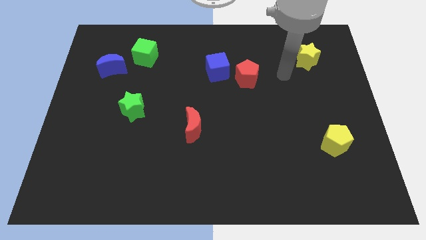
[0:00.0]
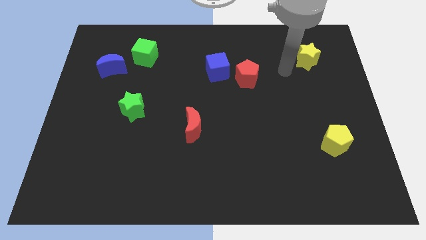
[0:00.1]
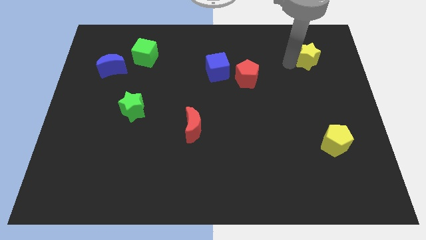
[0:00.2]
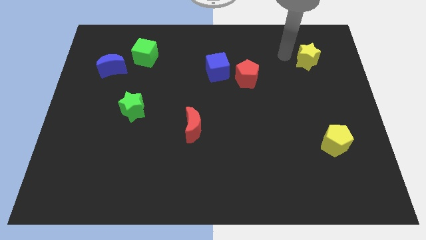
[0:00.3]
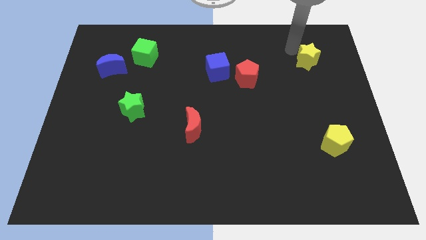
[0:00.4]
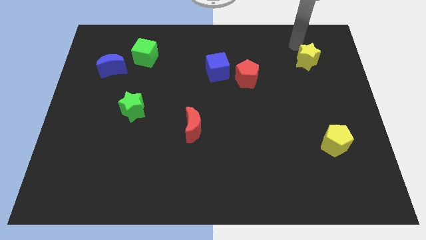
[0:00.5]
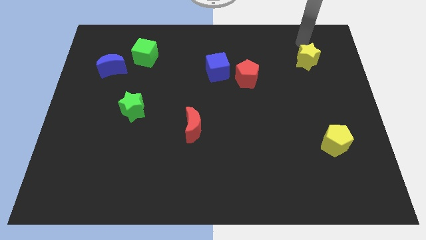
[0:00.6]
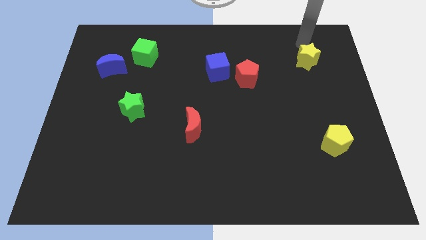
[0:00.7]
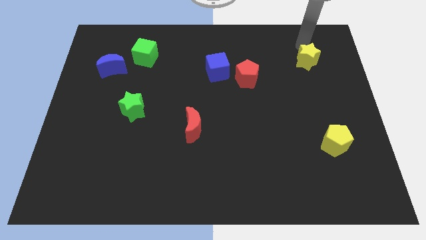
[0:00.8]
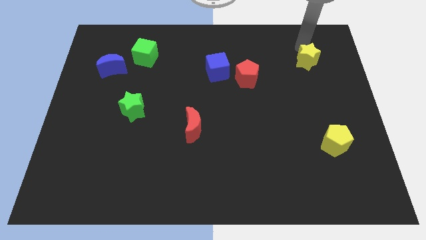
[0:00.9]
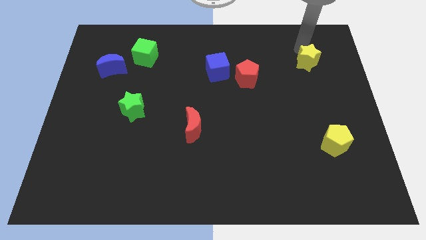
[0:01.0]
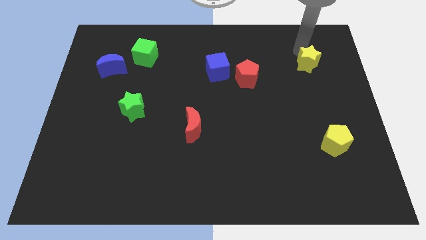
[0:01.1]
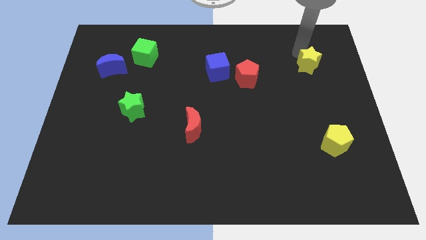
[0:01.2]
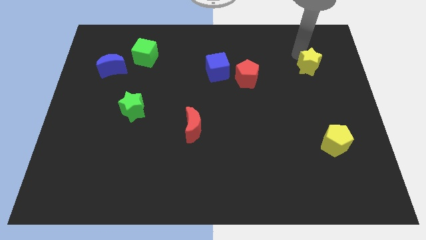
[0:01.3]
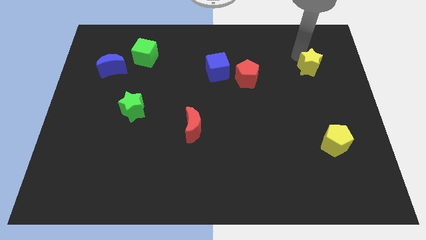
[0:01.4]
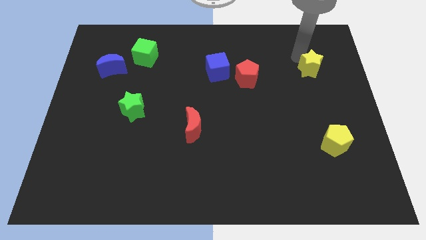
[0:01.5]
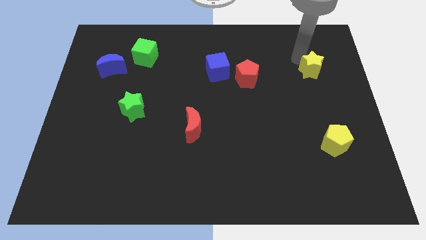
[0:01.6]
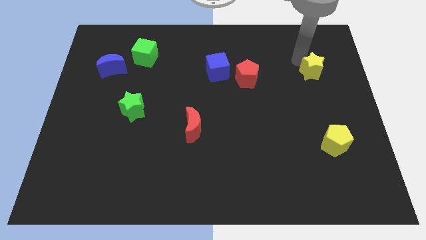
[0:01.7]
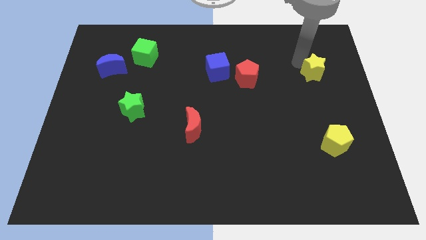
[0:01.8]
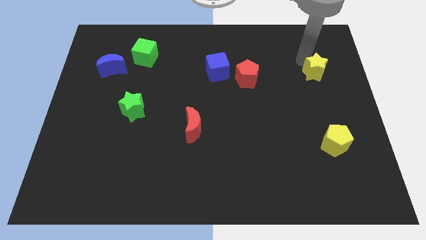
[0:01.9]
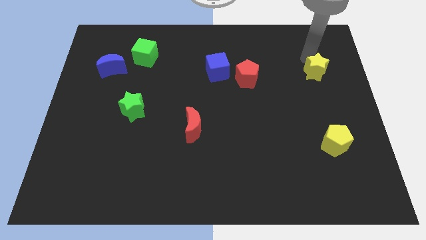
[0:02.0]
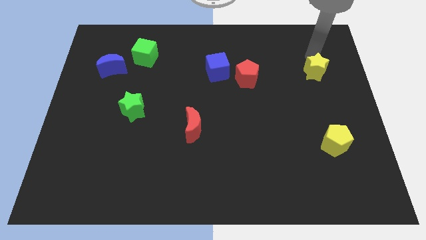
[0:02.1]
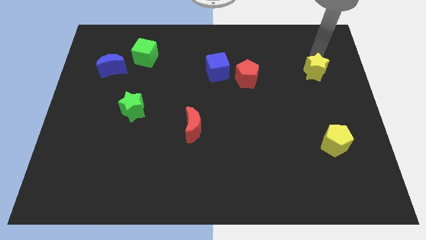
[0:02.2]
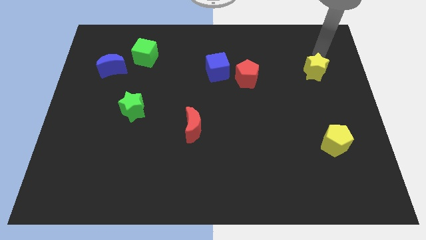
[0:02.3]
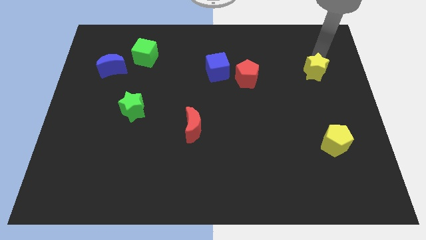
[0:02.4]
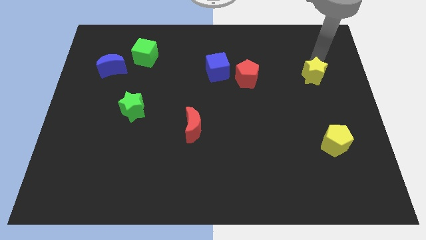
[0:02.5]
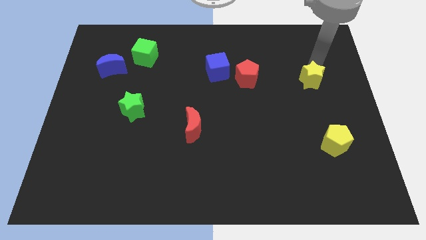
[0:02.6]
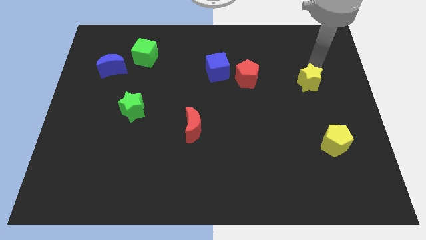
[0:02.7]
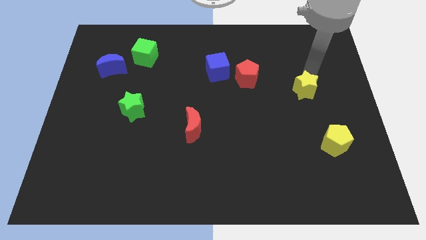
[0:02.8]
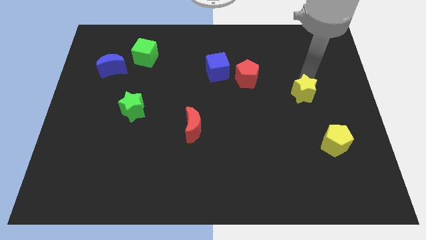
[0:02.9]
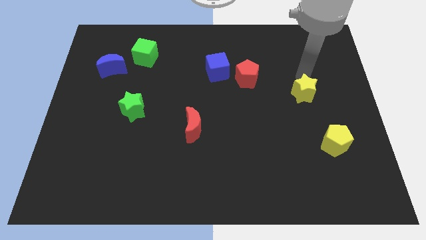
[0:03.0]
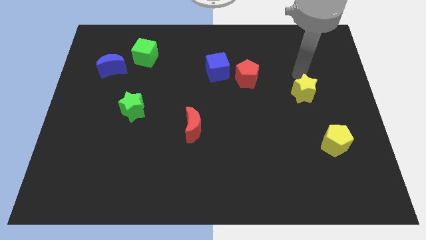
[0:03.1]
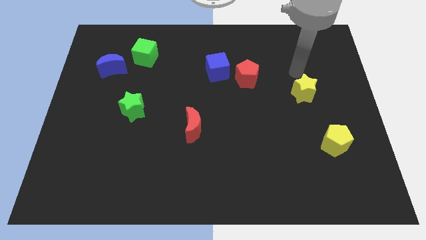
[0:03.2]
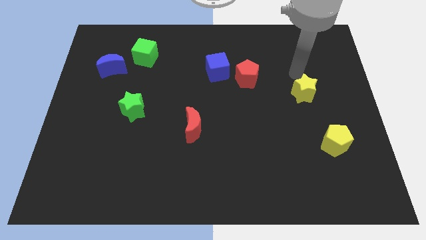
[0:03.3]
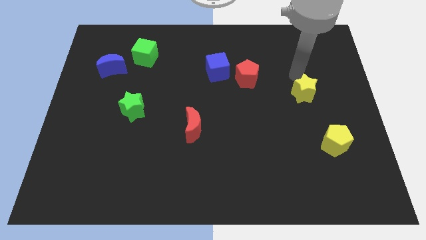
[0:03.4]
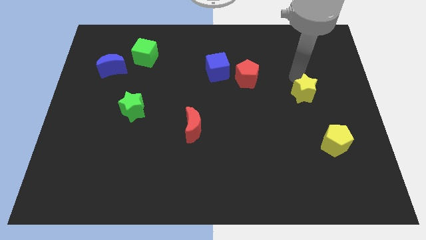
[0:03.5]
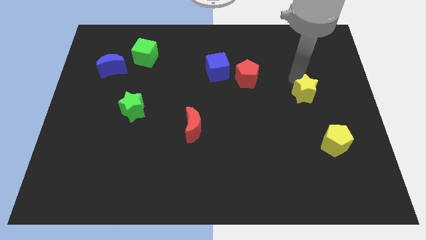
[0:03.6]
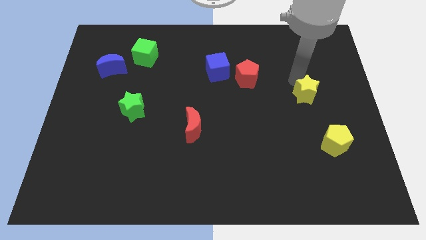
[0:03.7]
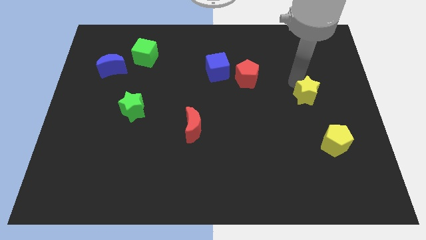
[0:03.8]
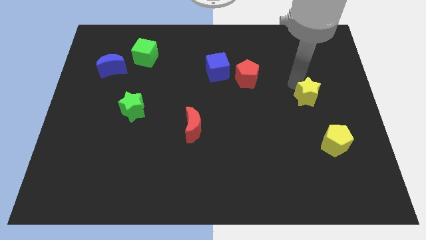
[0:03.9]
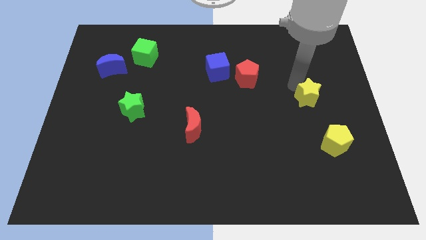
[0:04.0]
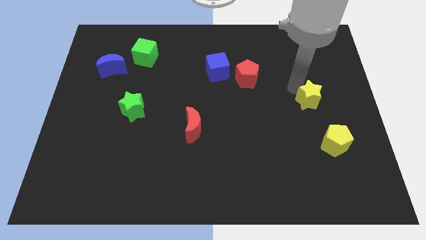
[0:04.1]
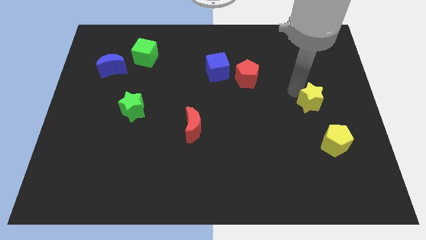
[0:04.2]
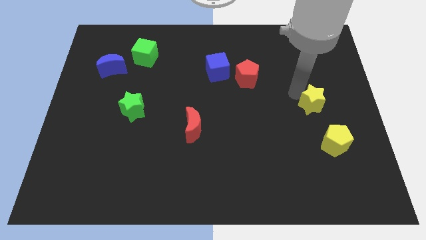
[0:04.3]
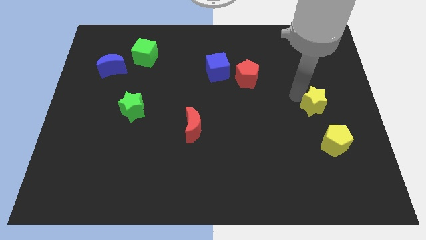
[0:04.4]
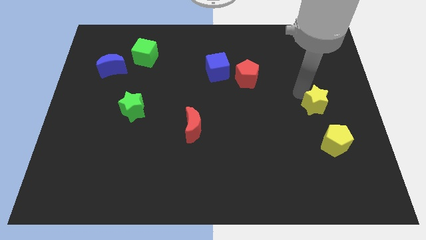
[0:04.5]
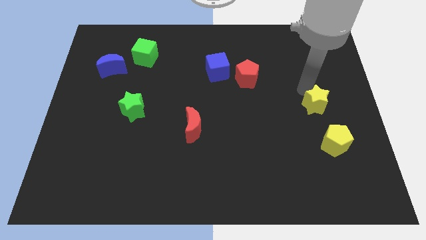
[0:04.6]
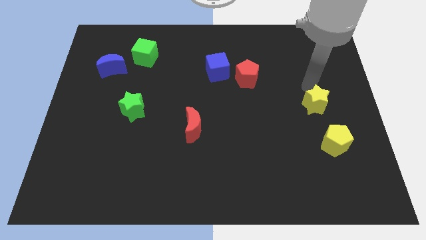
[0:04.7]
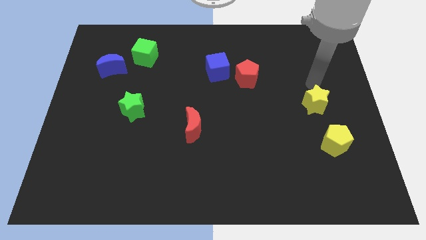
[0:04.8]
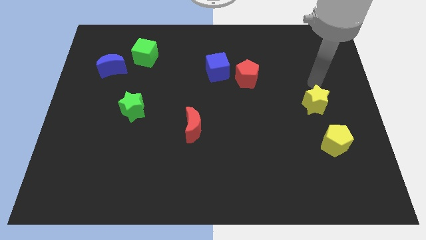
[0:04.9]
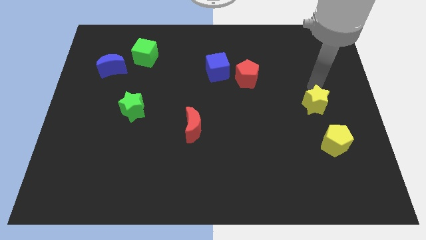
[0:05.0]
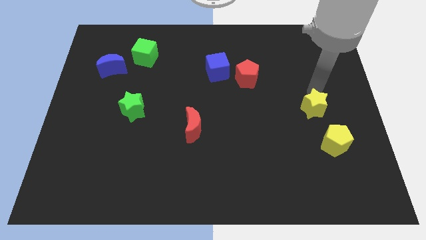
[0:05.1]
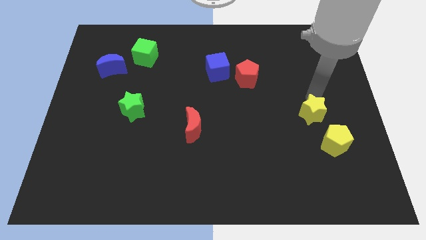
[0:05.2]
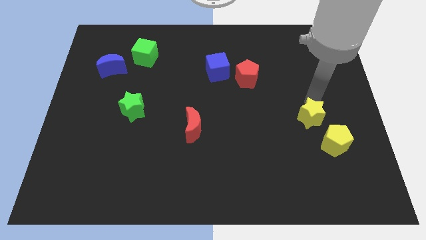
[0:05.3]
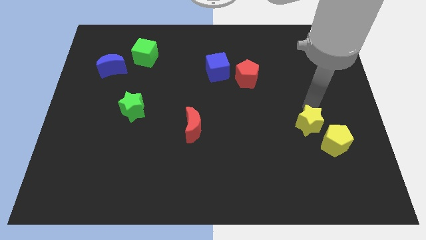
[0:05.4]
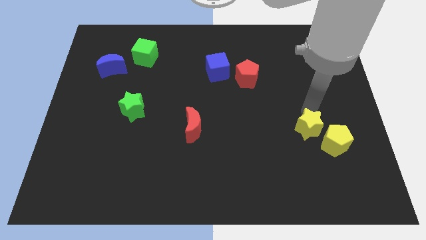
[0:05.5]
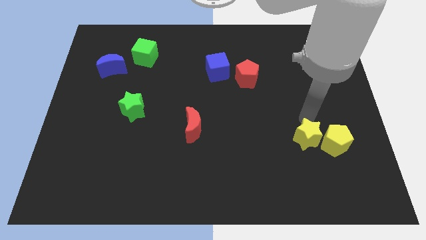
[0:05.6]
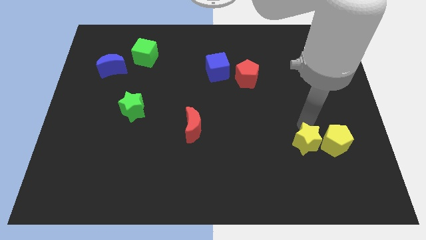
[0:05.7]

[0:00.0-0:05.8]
slide the yellow star to the bottom left of the yellow pentagon

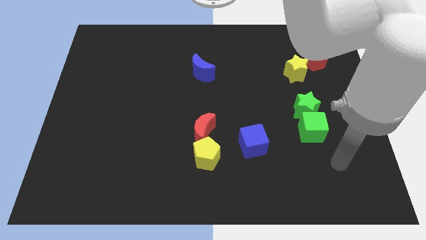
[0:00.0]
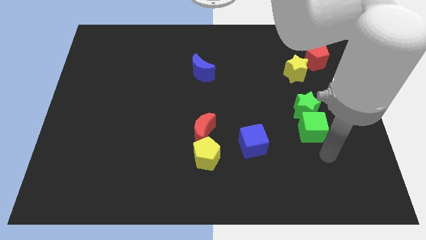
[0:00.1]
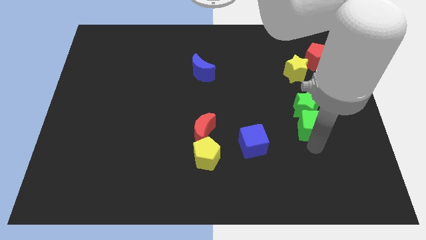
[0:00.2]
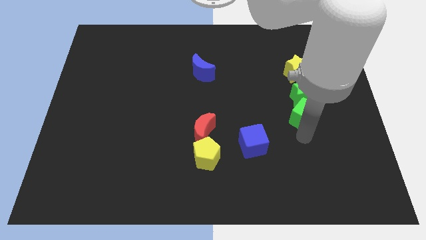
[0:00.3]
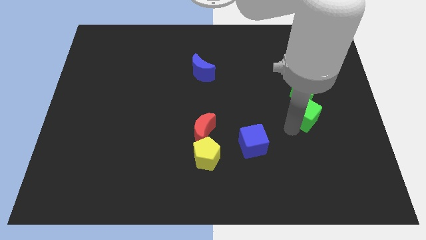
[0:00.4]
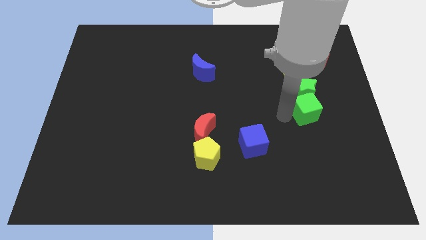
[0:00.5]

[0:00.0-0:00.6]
slide the green star to the bottom right of the yellow star

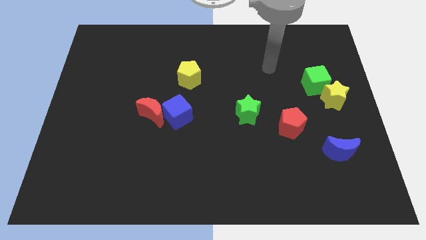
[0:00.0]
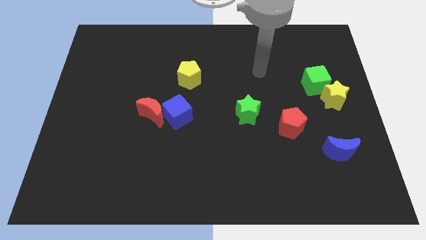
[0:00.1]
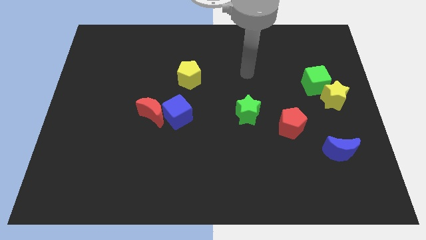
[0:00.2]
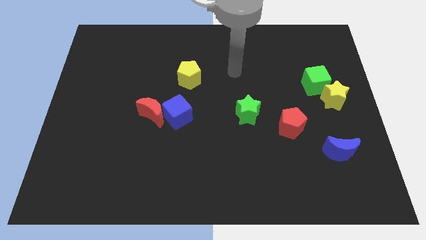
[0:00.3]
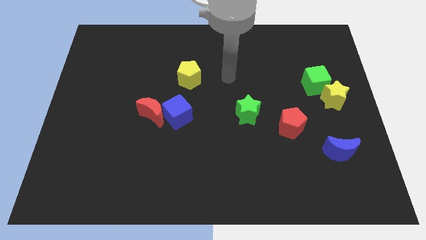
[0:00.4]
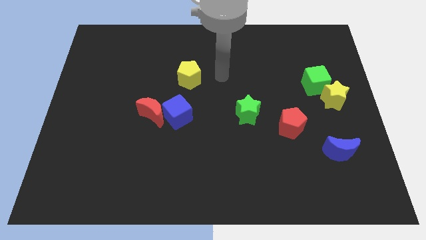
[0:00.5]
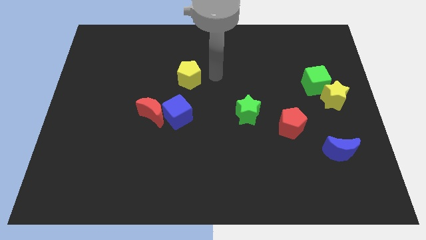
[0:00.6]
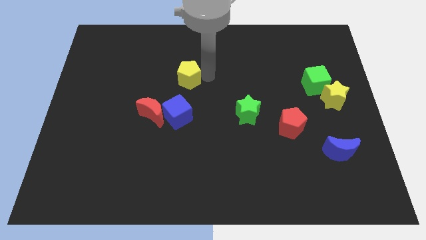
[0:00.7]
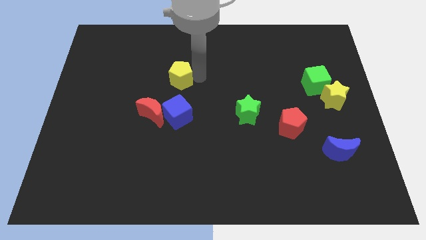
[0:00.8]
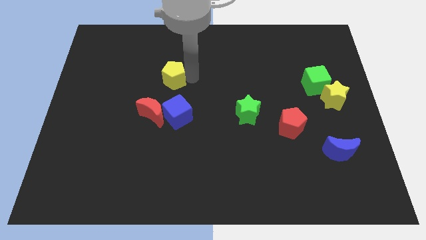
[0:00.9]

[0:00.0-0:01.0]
move the yellow pentagon to the top of the red moon
